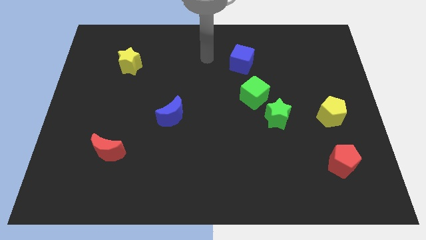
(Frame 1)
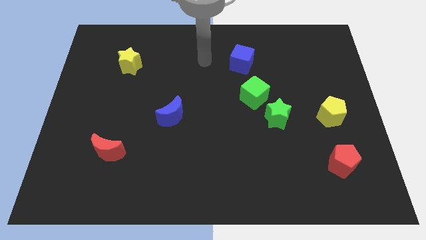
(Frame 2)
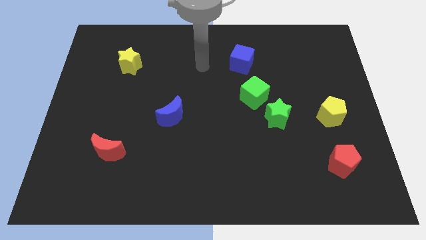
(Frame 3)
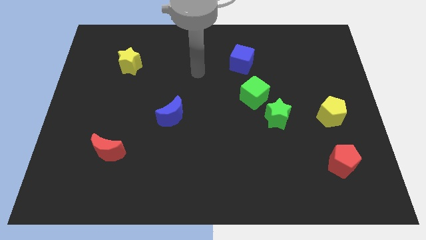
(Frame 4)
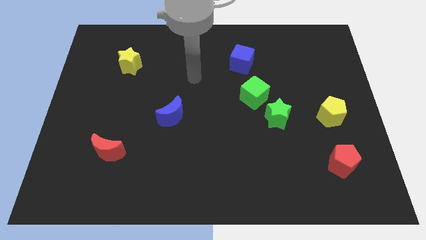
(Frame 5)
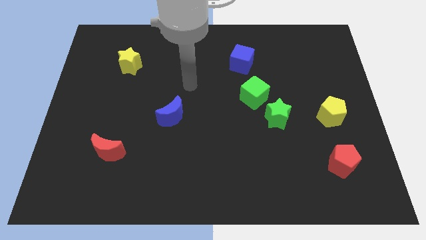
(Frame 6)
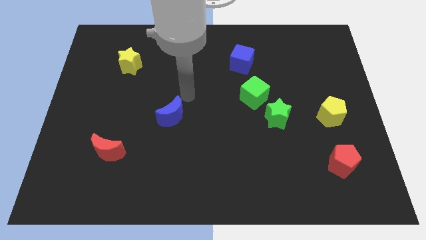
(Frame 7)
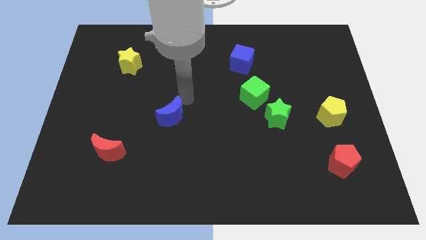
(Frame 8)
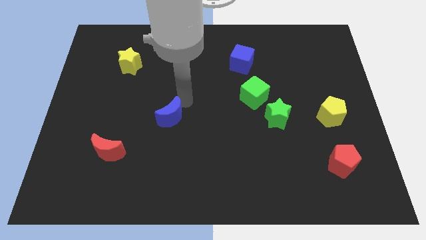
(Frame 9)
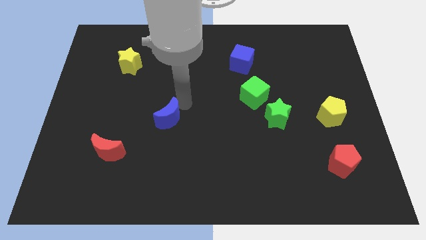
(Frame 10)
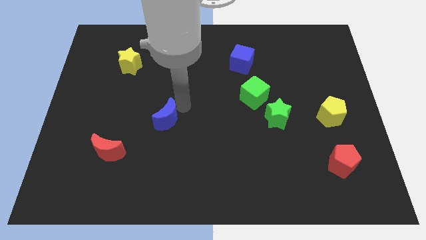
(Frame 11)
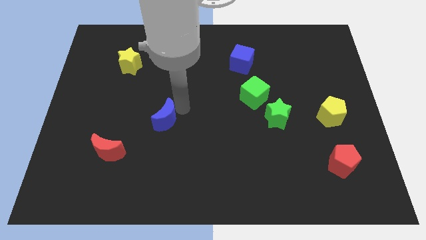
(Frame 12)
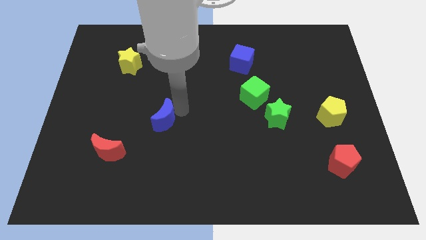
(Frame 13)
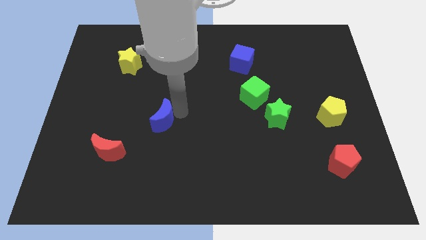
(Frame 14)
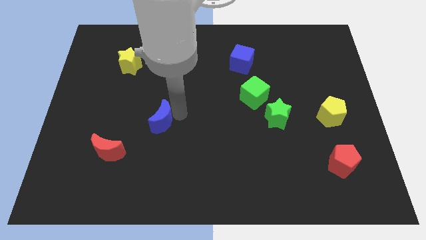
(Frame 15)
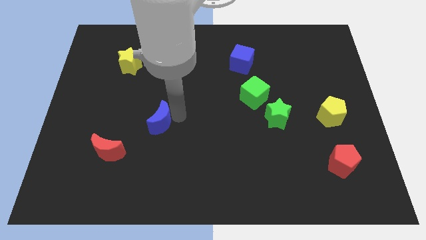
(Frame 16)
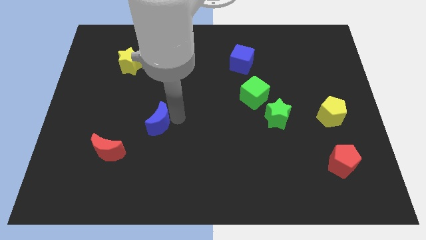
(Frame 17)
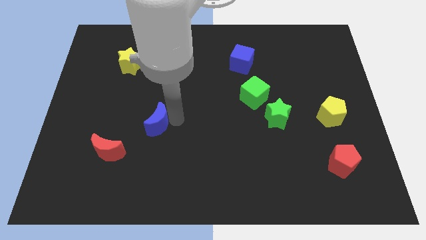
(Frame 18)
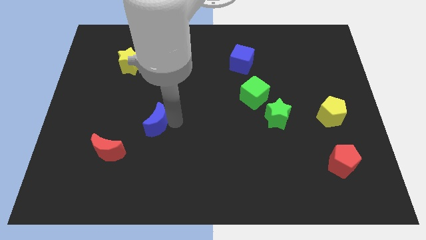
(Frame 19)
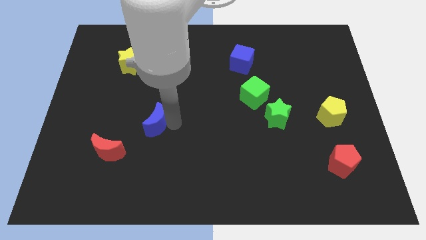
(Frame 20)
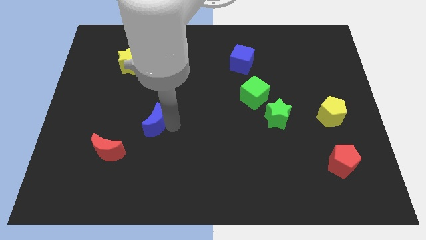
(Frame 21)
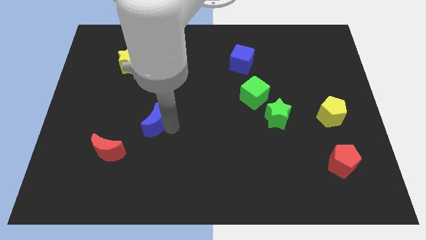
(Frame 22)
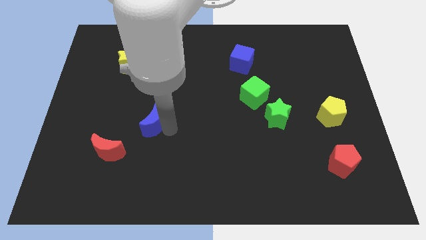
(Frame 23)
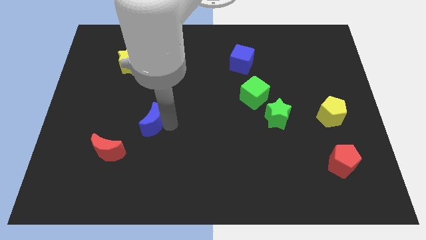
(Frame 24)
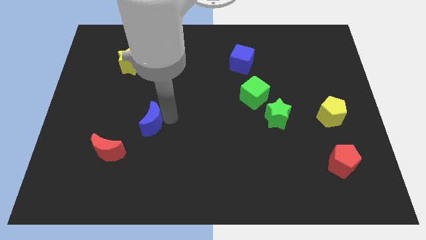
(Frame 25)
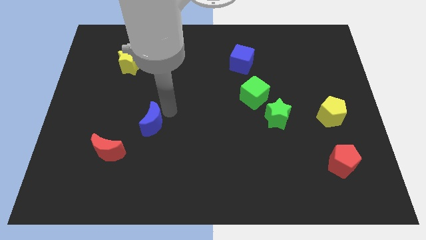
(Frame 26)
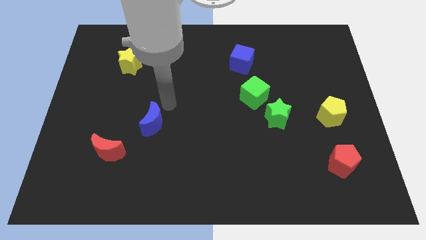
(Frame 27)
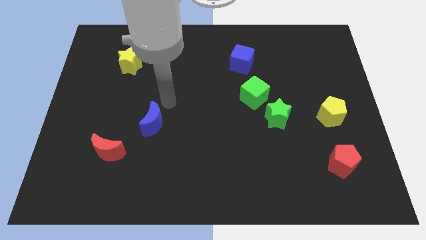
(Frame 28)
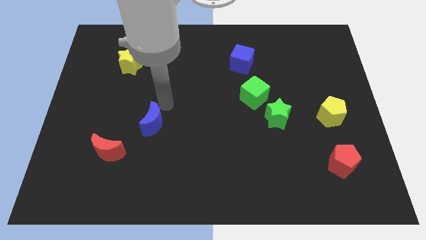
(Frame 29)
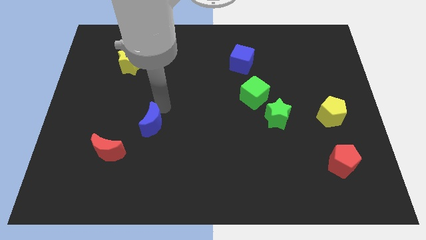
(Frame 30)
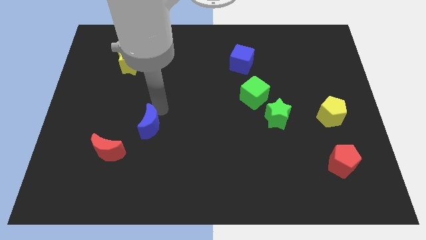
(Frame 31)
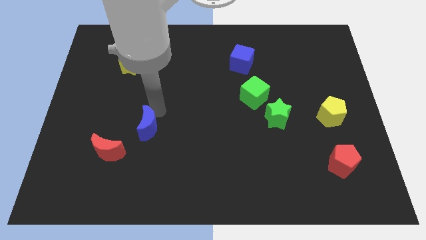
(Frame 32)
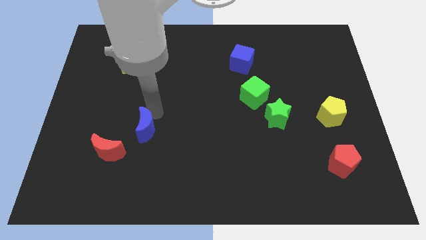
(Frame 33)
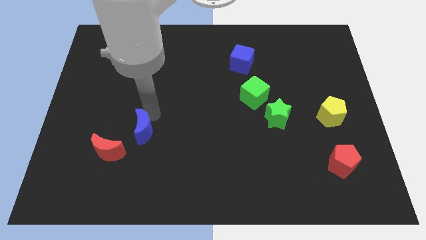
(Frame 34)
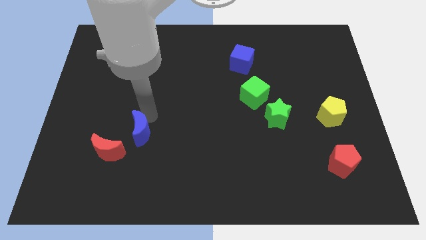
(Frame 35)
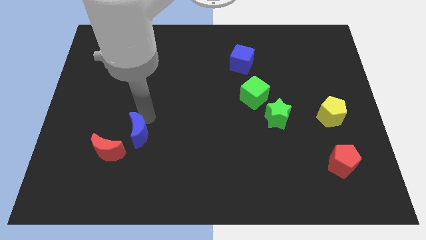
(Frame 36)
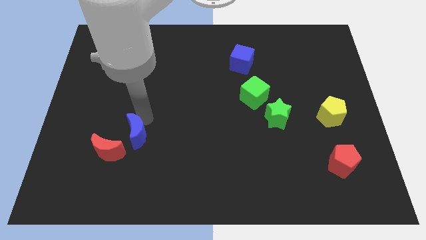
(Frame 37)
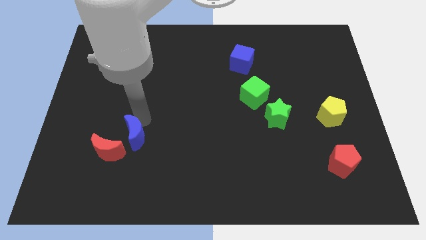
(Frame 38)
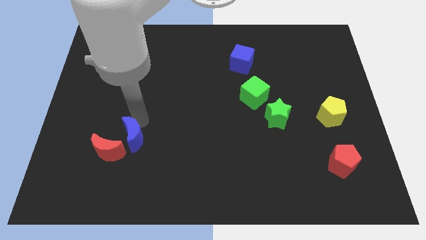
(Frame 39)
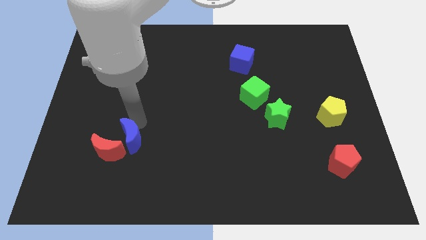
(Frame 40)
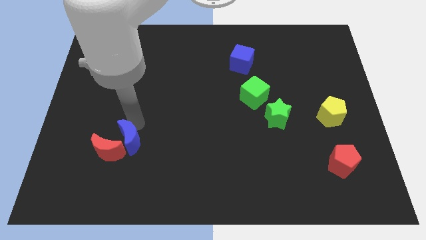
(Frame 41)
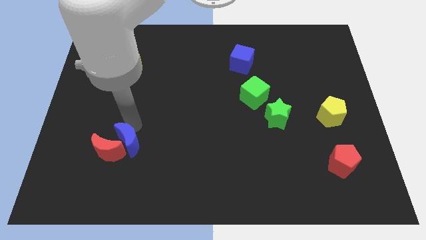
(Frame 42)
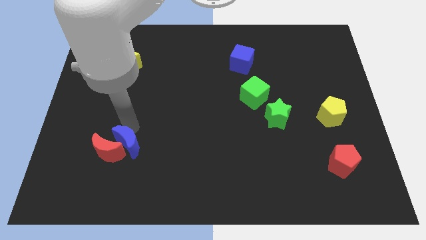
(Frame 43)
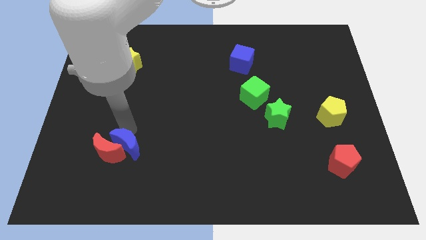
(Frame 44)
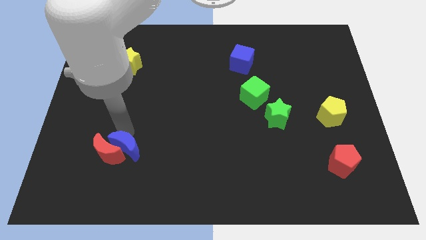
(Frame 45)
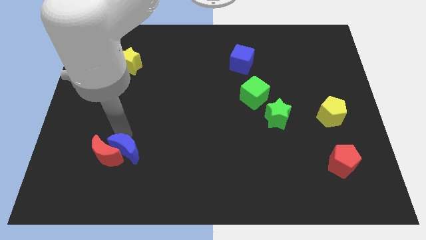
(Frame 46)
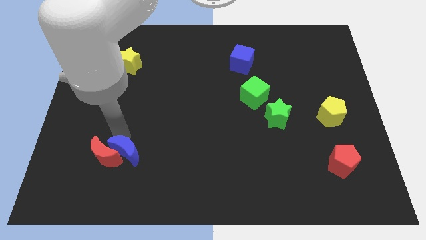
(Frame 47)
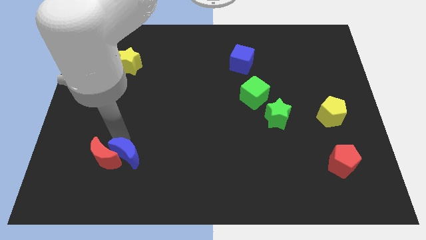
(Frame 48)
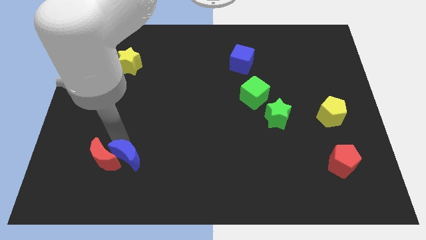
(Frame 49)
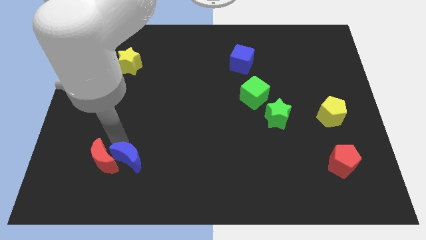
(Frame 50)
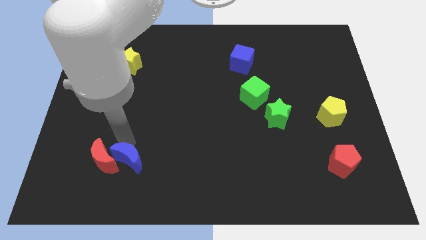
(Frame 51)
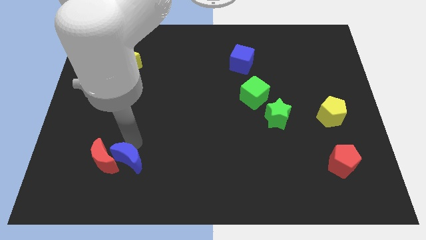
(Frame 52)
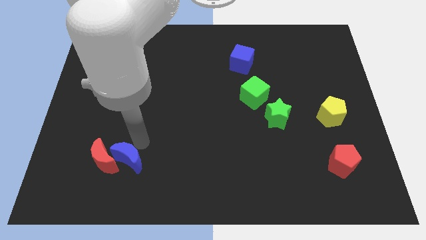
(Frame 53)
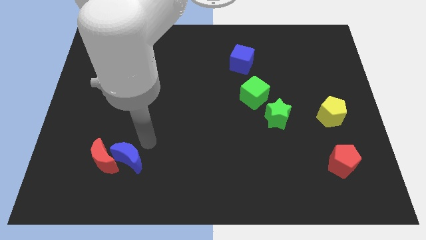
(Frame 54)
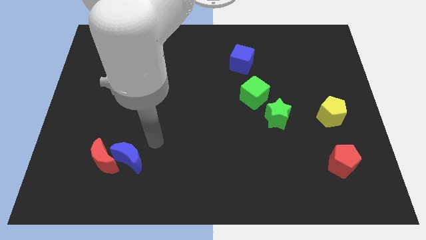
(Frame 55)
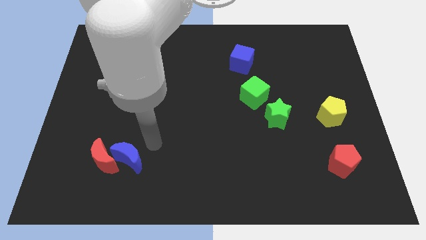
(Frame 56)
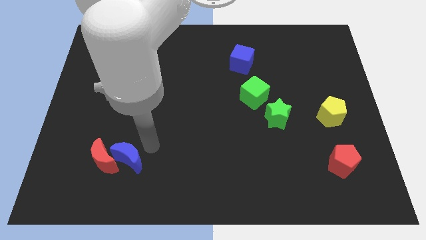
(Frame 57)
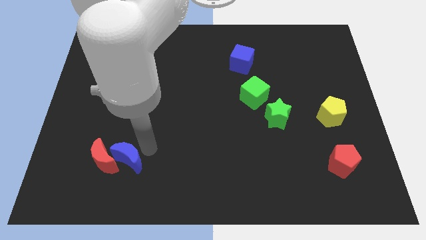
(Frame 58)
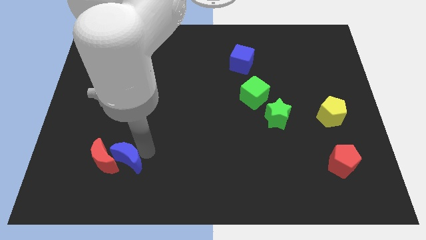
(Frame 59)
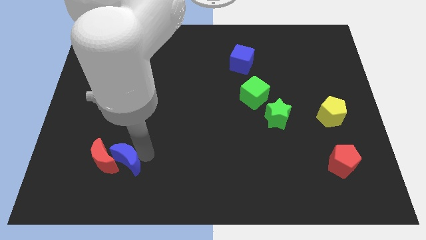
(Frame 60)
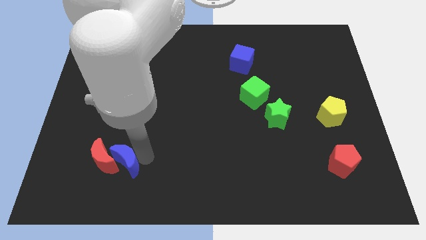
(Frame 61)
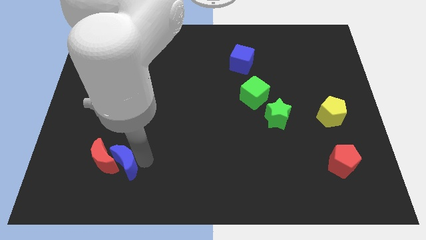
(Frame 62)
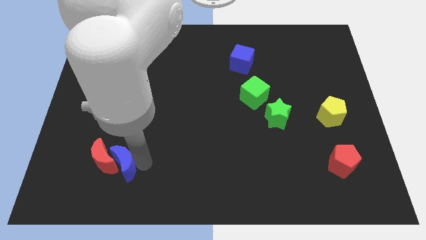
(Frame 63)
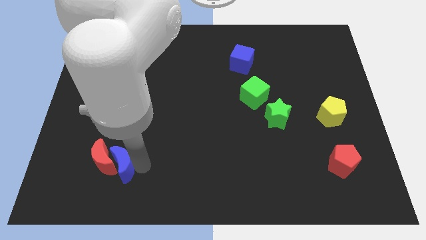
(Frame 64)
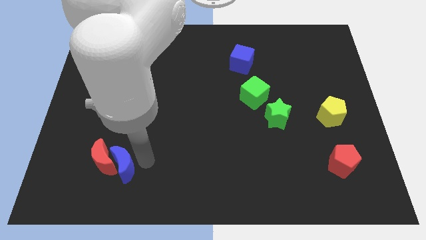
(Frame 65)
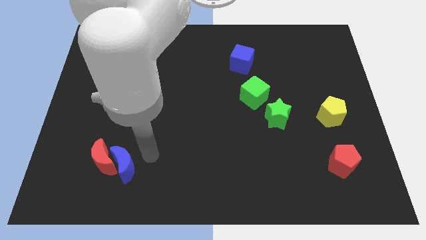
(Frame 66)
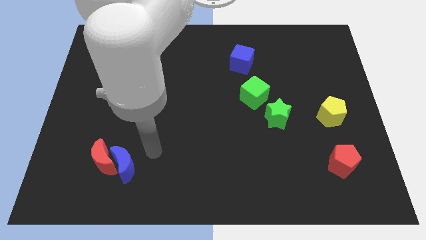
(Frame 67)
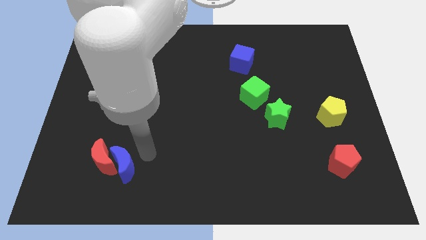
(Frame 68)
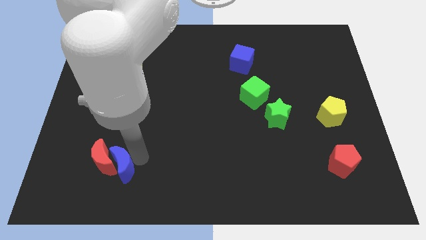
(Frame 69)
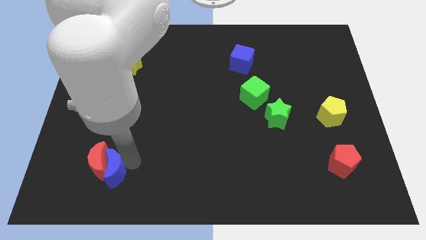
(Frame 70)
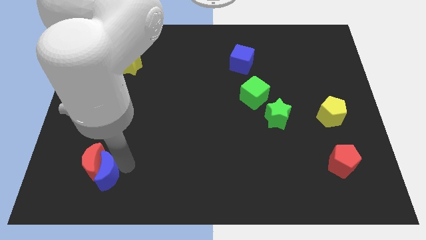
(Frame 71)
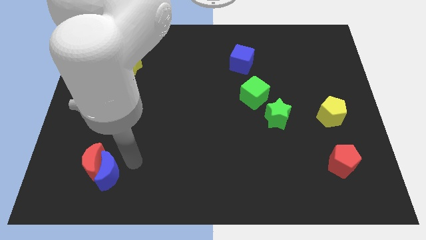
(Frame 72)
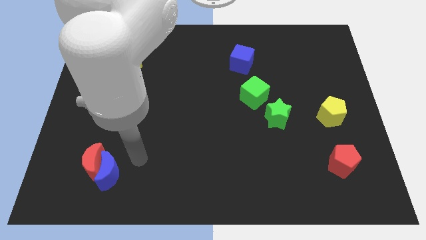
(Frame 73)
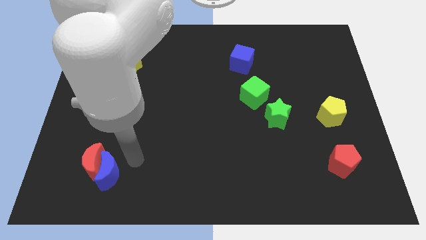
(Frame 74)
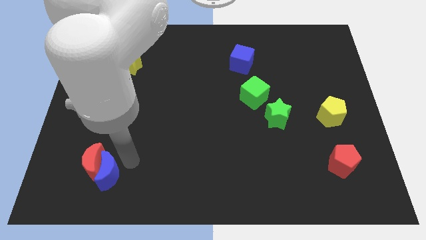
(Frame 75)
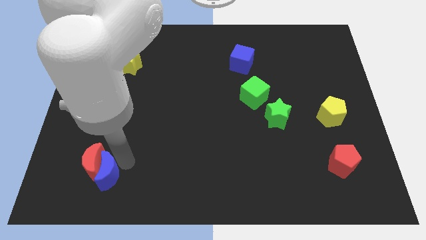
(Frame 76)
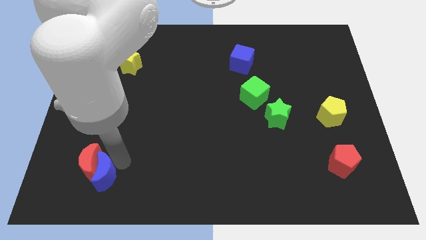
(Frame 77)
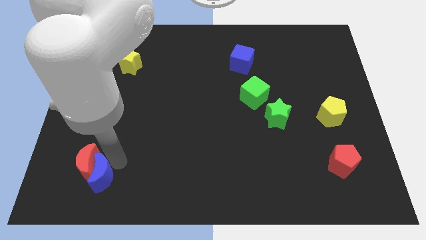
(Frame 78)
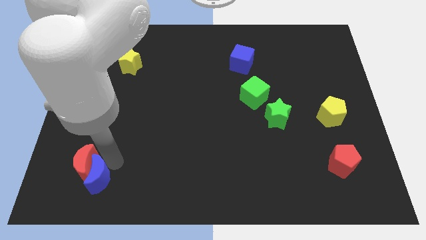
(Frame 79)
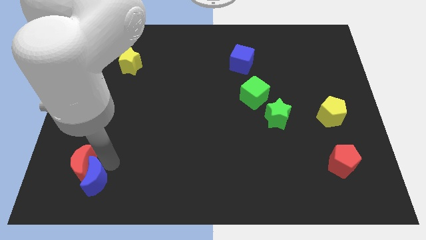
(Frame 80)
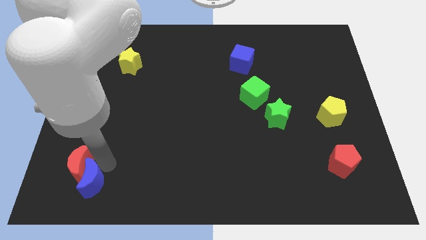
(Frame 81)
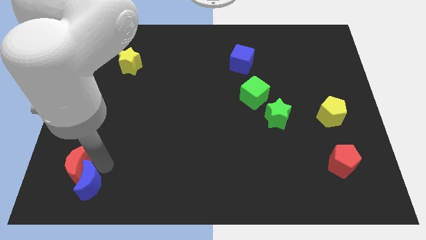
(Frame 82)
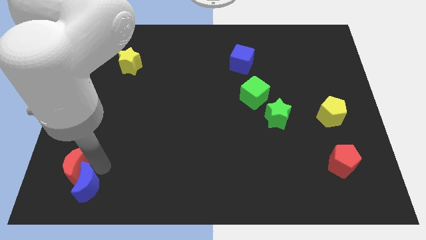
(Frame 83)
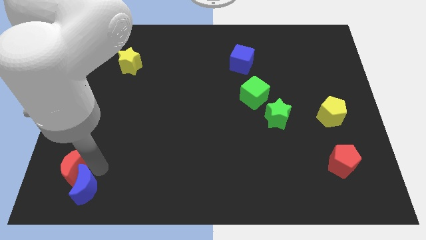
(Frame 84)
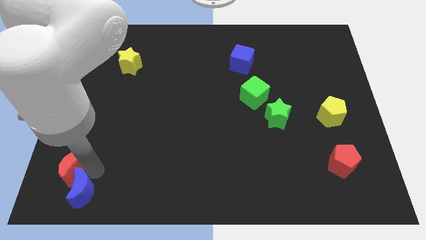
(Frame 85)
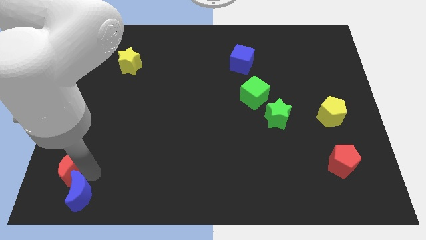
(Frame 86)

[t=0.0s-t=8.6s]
put the blue moon to the bottom left corner
